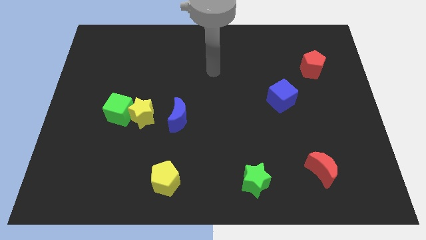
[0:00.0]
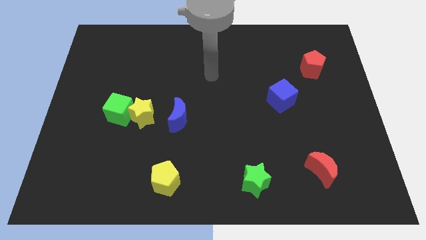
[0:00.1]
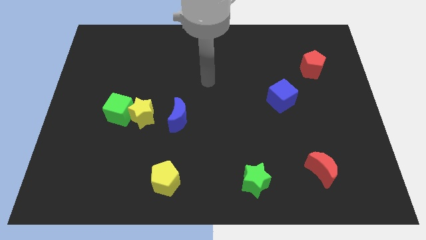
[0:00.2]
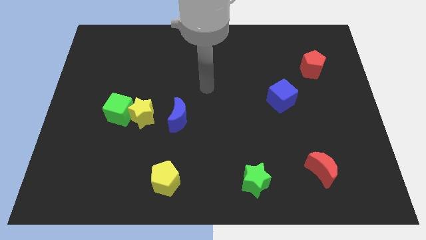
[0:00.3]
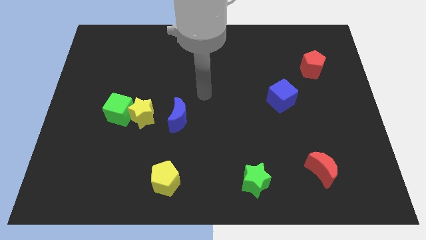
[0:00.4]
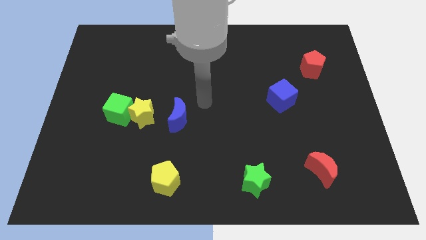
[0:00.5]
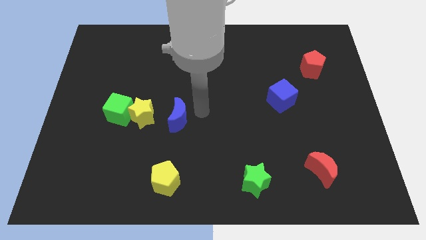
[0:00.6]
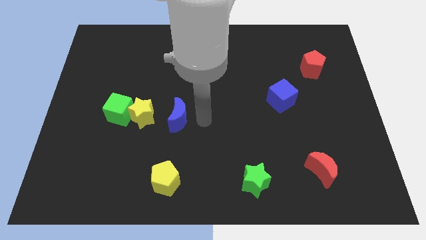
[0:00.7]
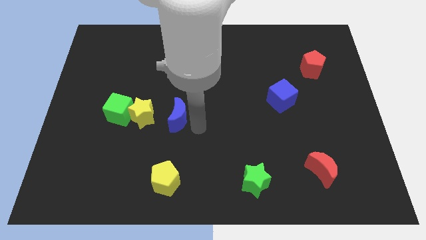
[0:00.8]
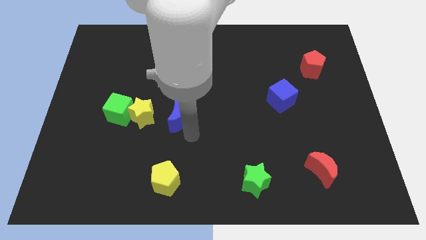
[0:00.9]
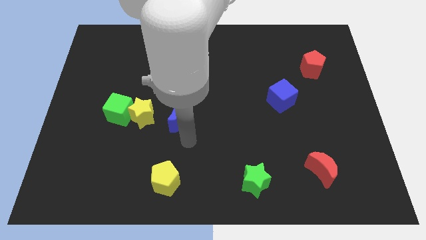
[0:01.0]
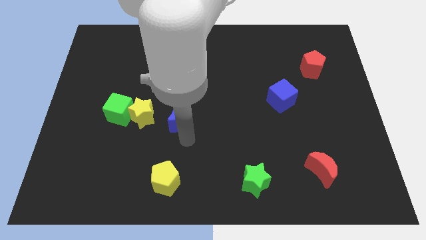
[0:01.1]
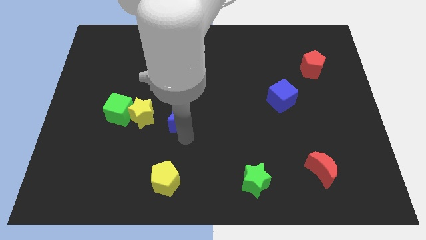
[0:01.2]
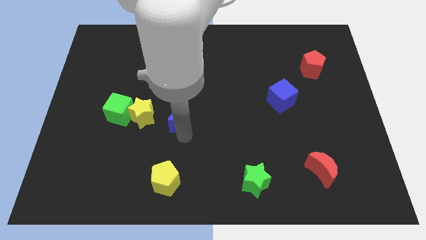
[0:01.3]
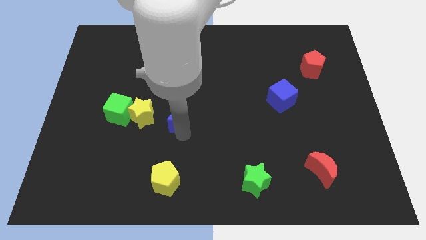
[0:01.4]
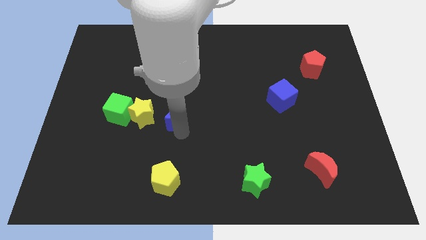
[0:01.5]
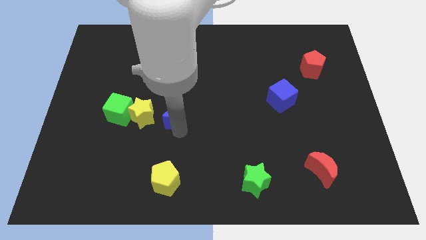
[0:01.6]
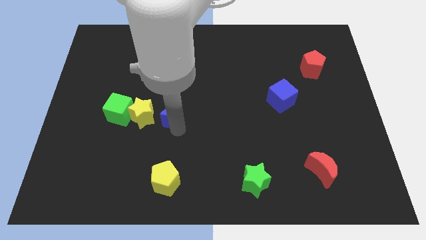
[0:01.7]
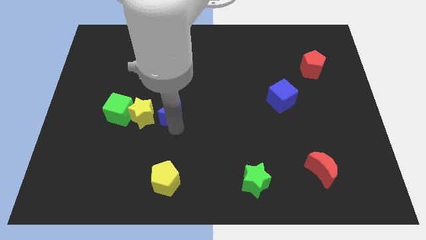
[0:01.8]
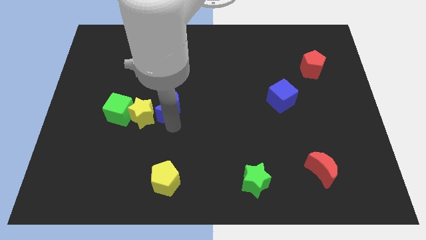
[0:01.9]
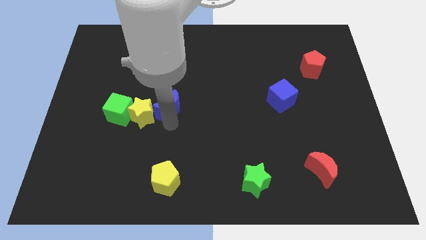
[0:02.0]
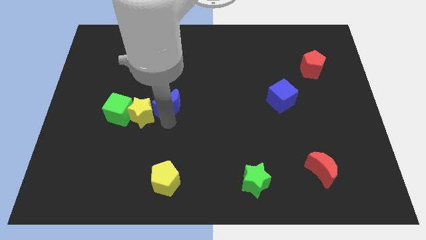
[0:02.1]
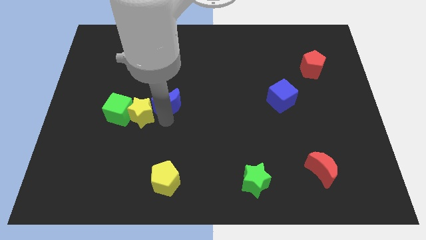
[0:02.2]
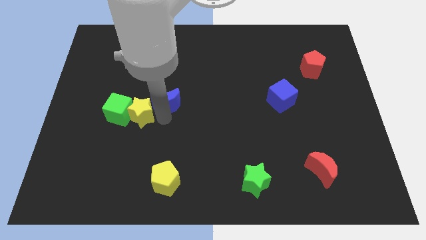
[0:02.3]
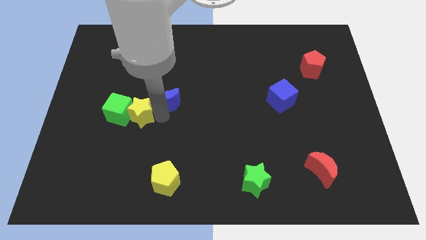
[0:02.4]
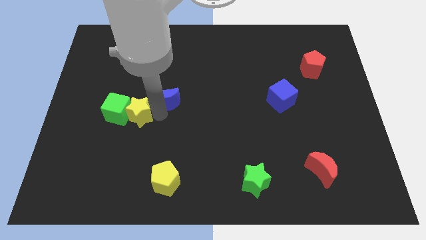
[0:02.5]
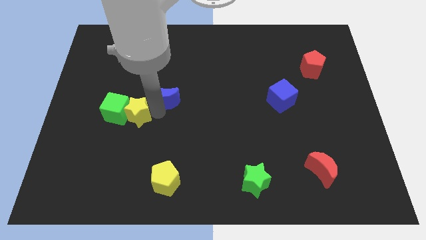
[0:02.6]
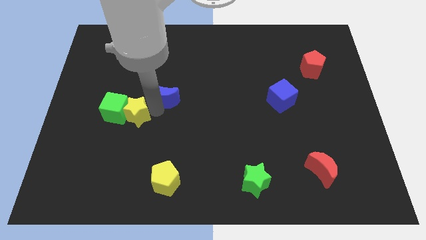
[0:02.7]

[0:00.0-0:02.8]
move the blue moon a bit up and then left

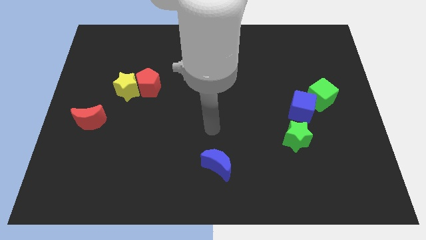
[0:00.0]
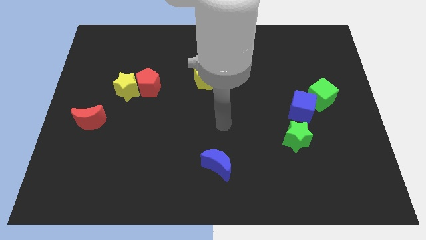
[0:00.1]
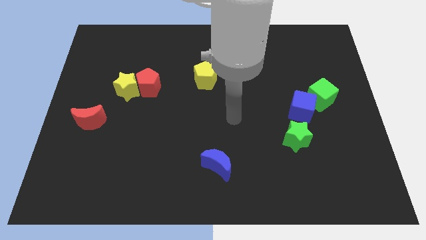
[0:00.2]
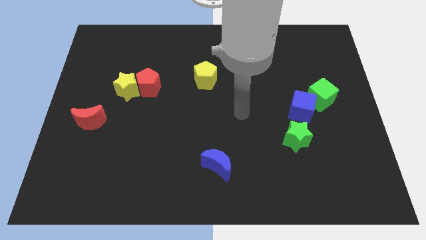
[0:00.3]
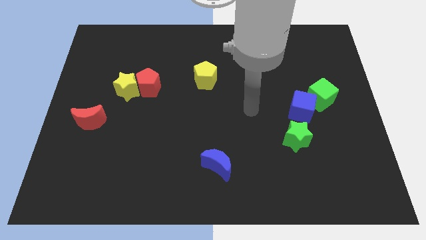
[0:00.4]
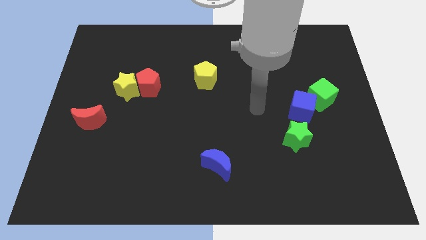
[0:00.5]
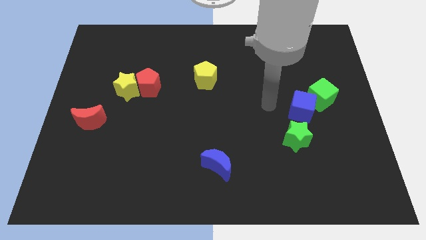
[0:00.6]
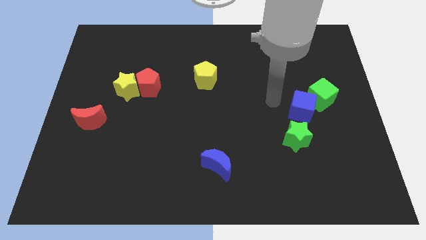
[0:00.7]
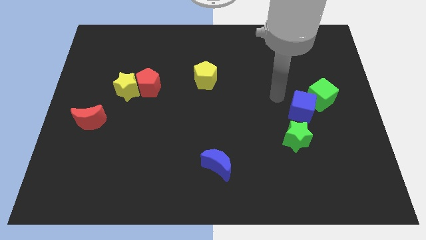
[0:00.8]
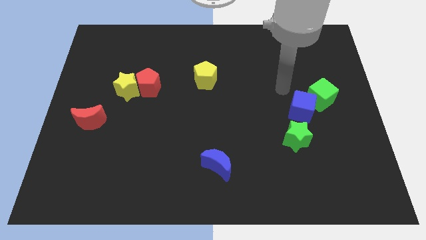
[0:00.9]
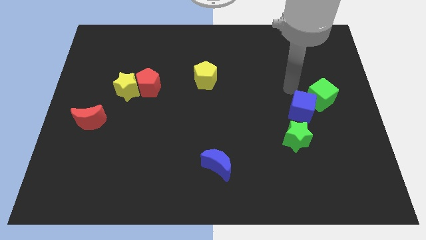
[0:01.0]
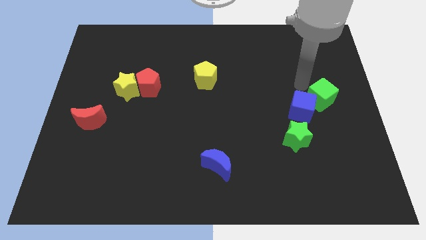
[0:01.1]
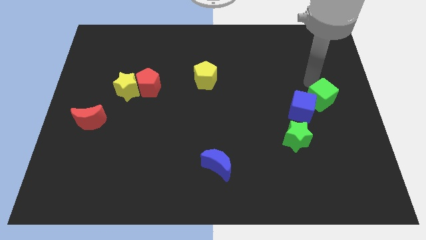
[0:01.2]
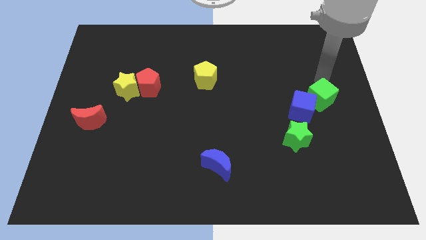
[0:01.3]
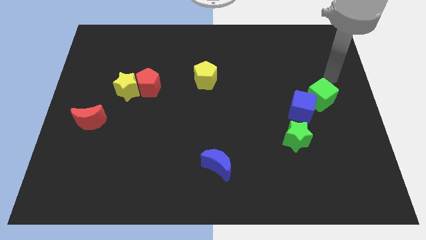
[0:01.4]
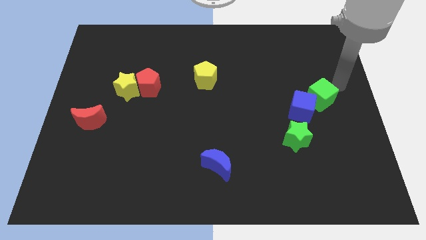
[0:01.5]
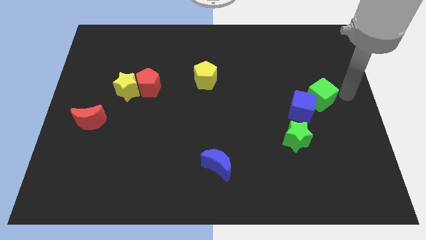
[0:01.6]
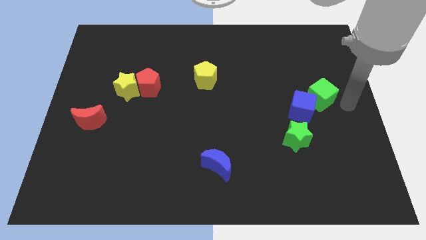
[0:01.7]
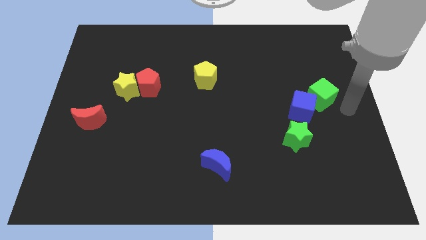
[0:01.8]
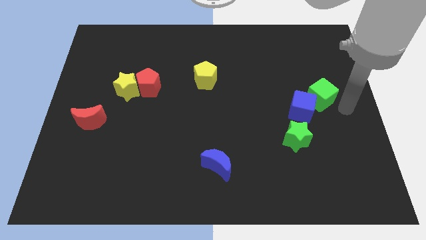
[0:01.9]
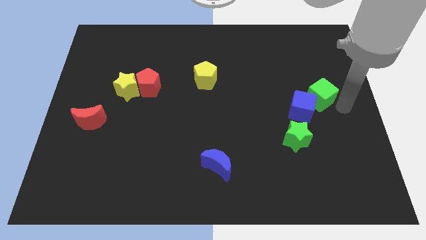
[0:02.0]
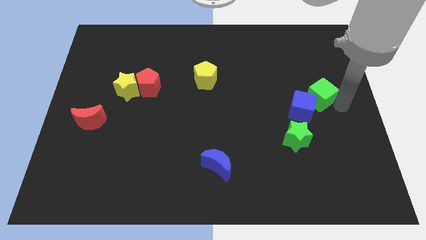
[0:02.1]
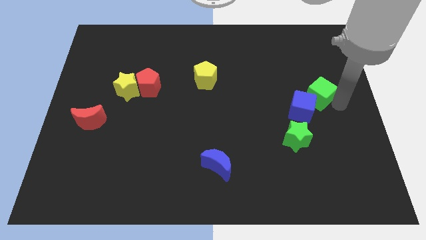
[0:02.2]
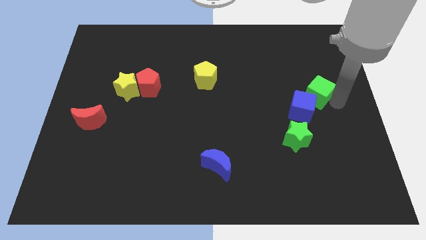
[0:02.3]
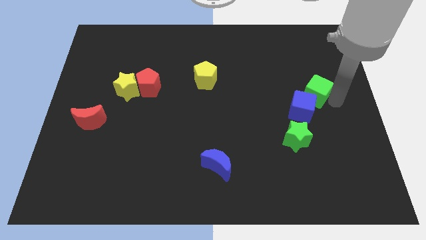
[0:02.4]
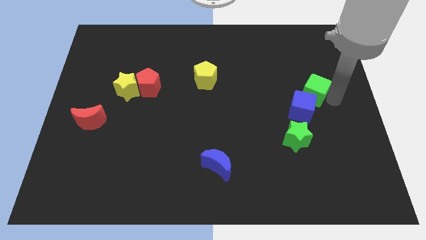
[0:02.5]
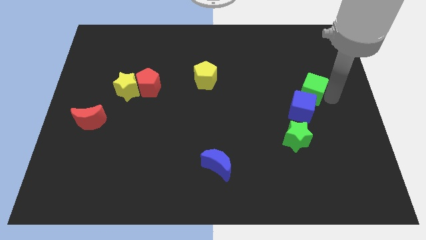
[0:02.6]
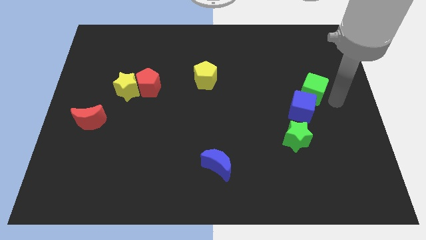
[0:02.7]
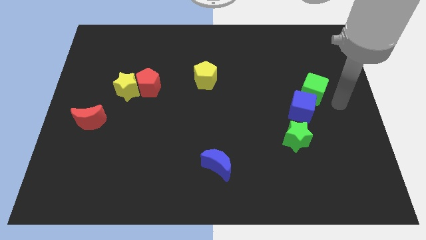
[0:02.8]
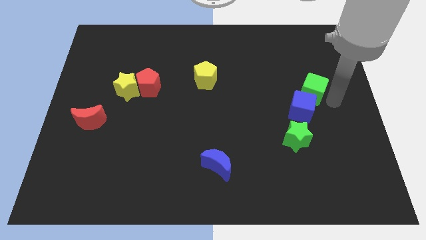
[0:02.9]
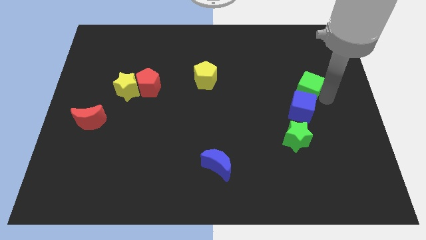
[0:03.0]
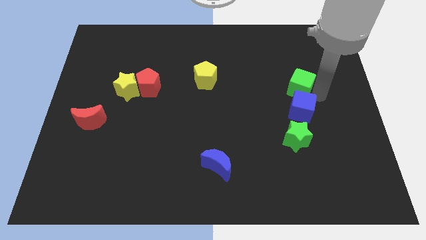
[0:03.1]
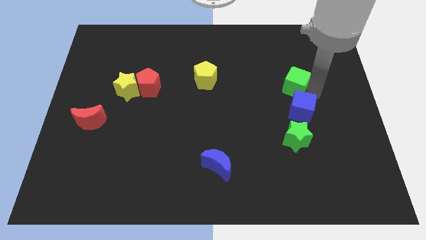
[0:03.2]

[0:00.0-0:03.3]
slide the green cube a little diagonally upwards and left

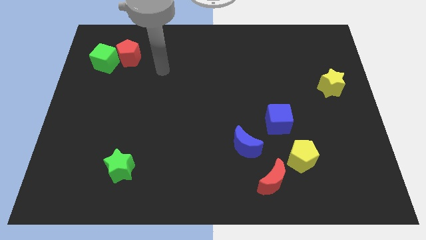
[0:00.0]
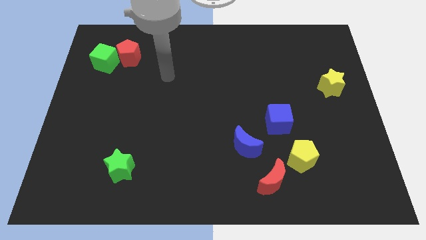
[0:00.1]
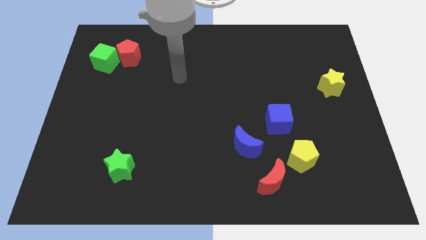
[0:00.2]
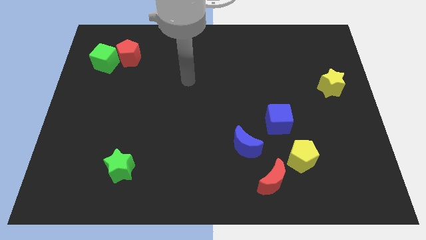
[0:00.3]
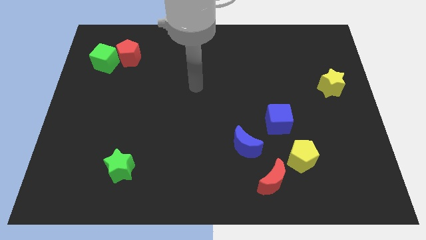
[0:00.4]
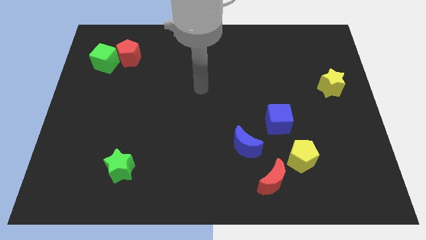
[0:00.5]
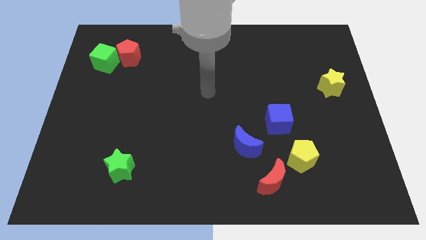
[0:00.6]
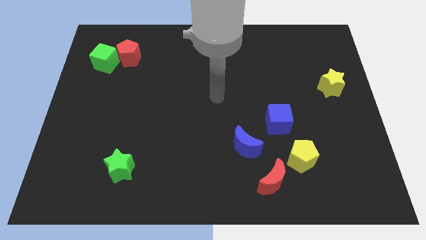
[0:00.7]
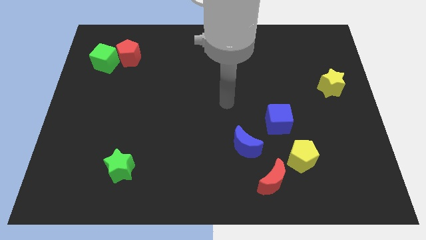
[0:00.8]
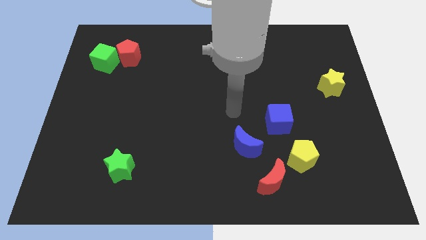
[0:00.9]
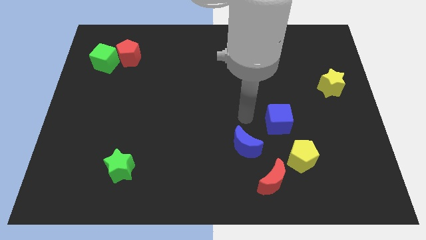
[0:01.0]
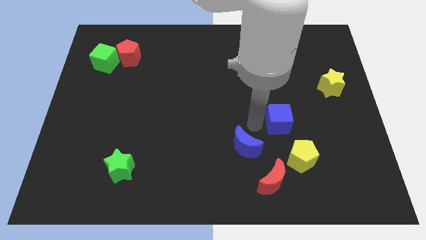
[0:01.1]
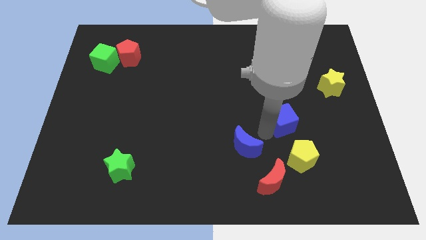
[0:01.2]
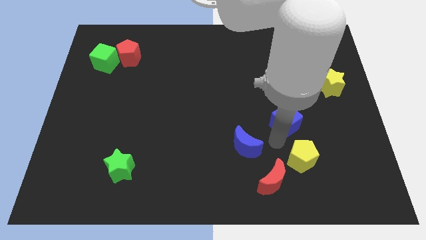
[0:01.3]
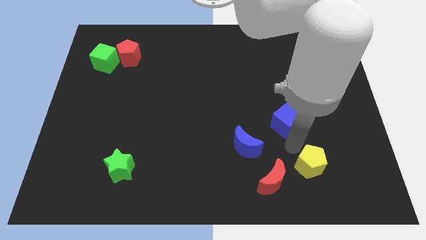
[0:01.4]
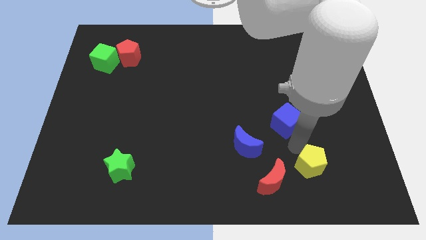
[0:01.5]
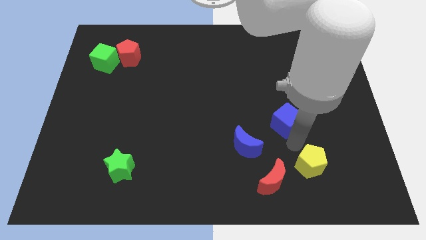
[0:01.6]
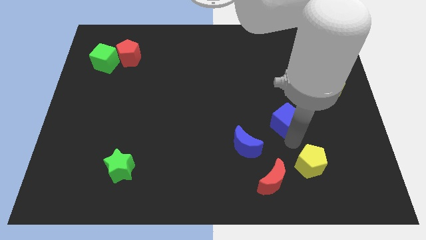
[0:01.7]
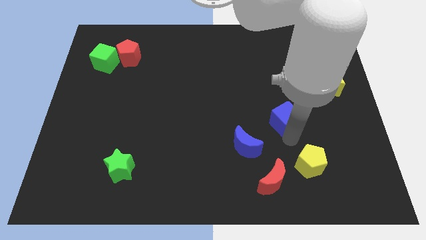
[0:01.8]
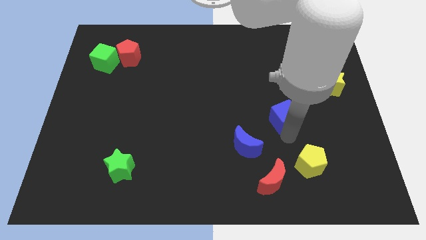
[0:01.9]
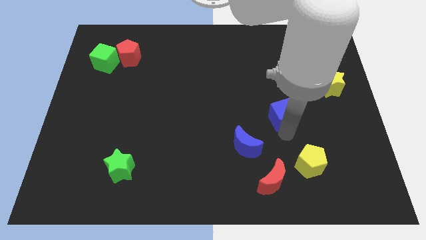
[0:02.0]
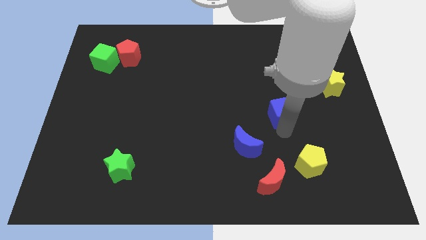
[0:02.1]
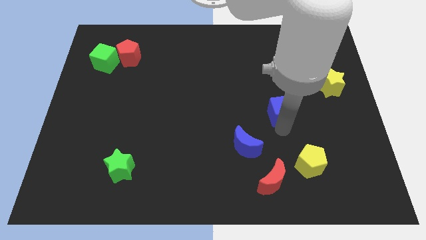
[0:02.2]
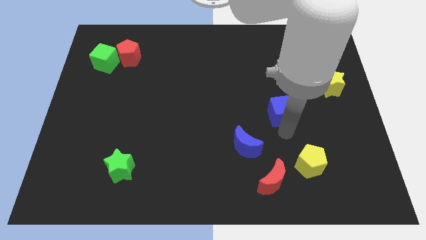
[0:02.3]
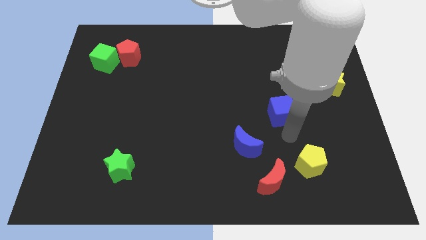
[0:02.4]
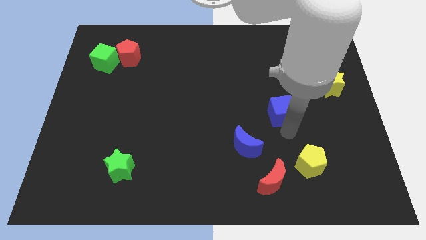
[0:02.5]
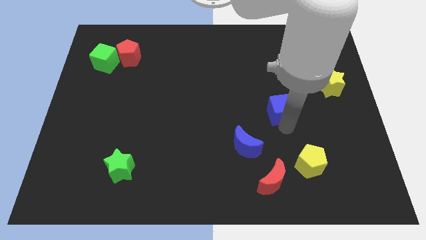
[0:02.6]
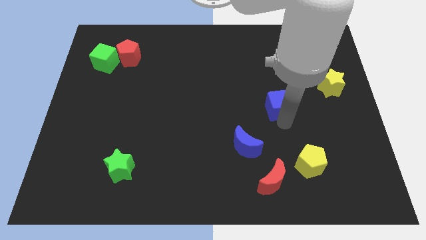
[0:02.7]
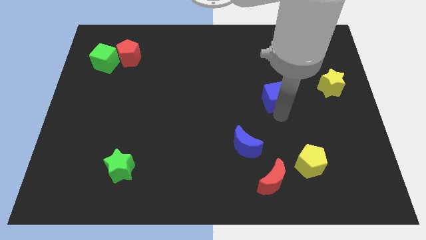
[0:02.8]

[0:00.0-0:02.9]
slightly move the blue cube upwards
